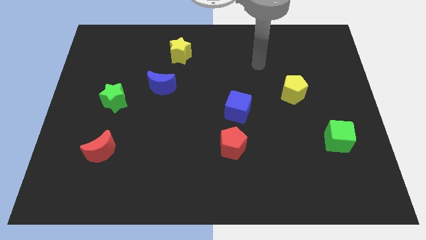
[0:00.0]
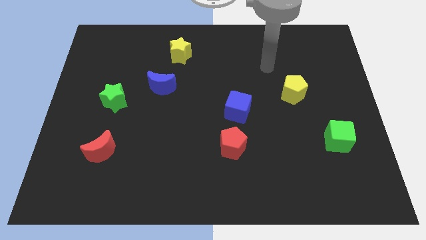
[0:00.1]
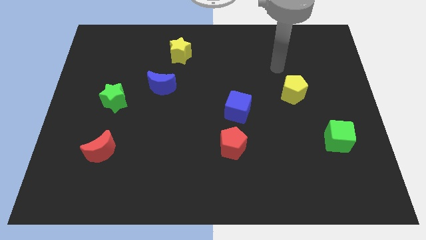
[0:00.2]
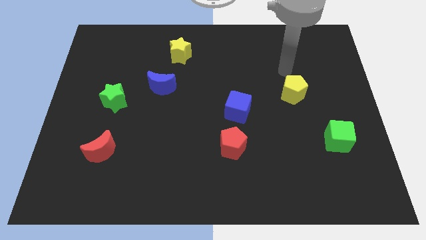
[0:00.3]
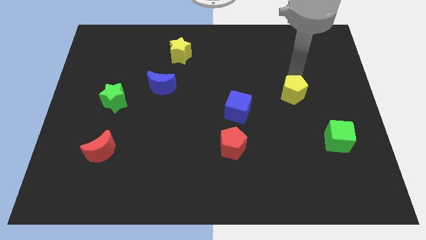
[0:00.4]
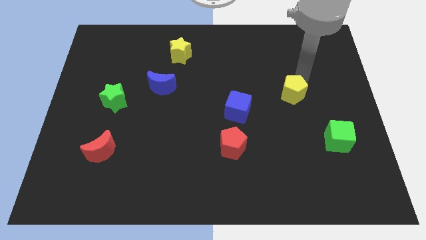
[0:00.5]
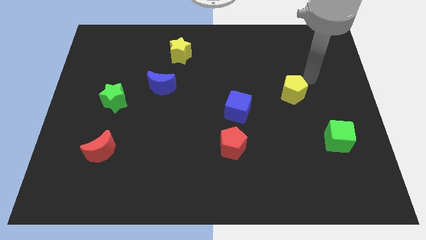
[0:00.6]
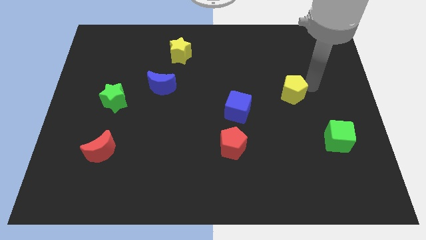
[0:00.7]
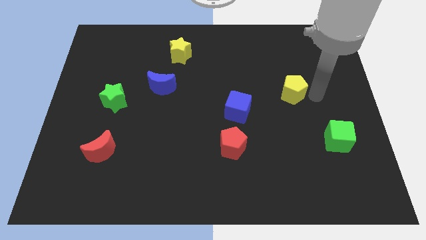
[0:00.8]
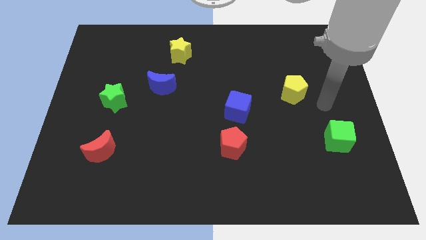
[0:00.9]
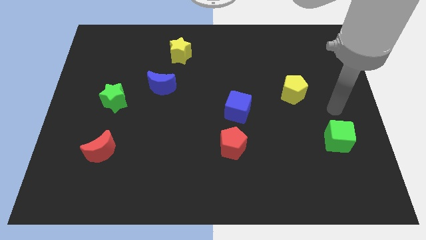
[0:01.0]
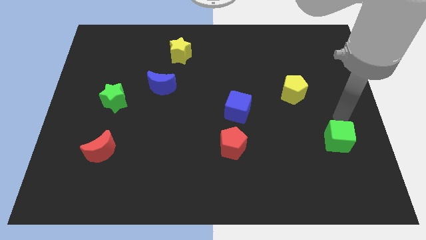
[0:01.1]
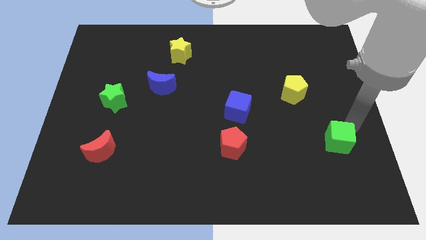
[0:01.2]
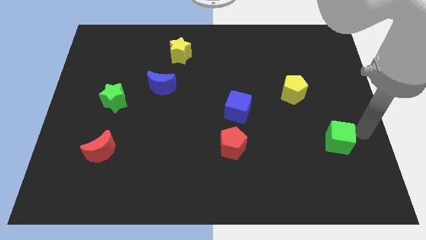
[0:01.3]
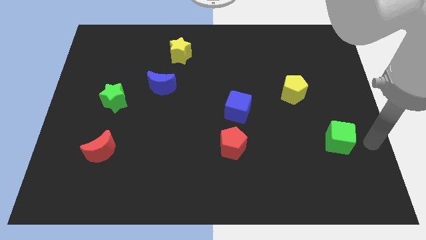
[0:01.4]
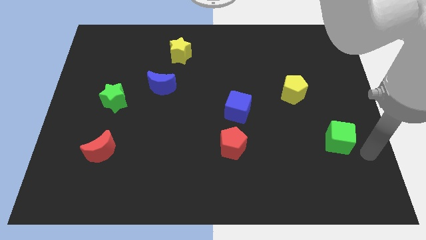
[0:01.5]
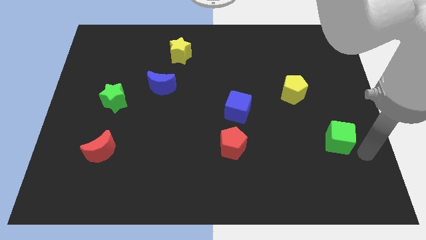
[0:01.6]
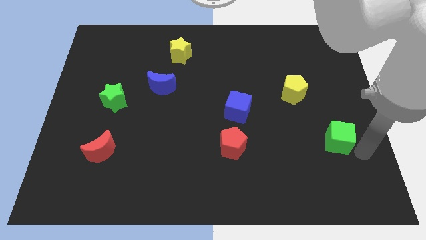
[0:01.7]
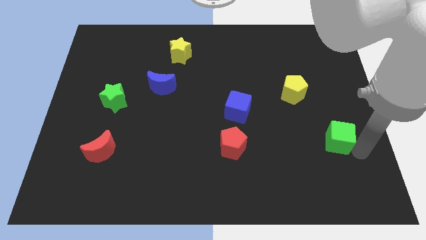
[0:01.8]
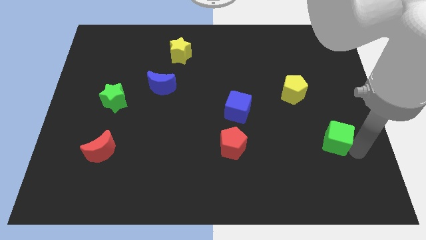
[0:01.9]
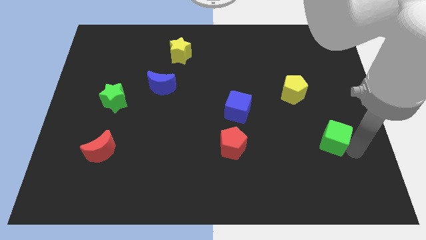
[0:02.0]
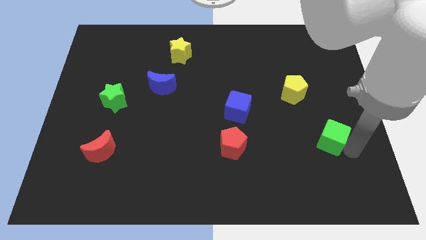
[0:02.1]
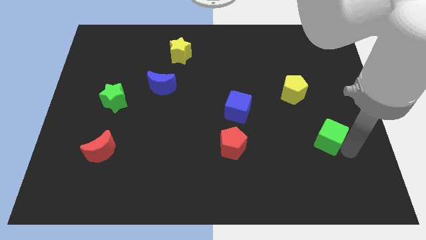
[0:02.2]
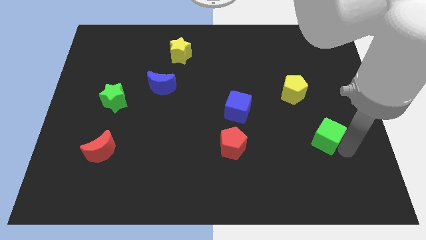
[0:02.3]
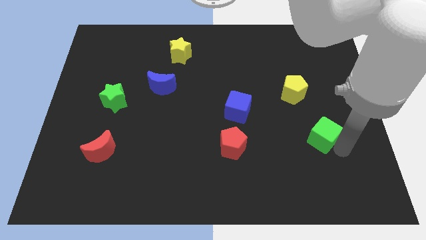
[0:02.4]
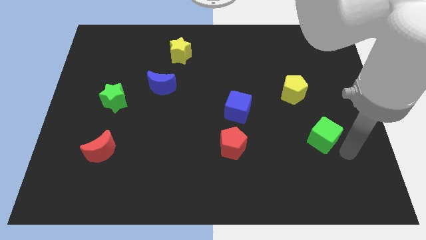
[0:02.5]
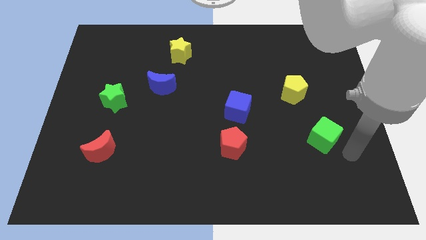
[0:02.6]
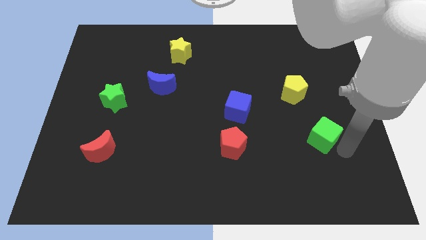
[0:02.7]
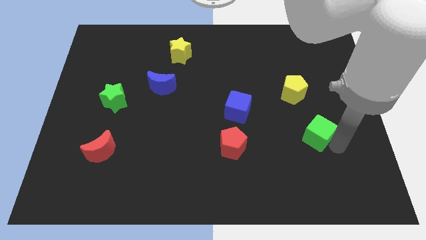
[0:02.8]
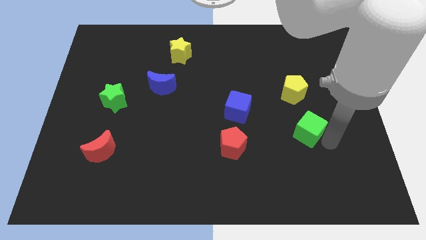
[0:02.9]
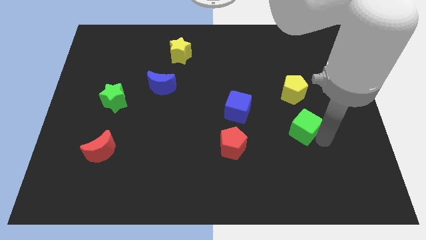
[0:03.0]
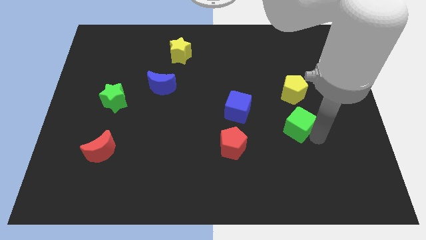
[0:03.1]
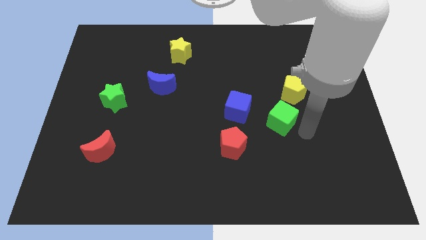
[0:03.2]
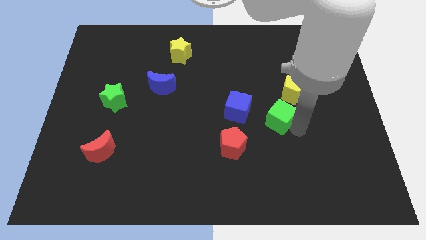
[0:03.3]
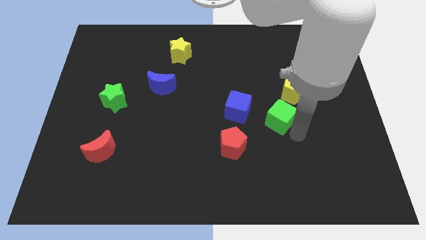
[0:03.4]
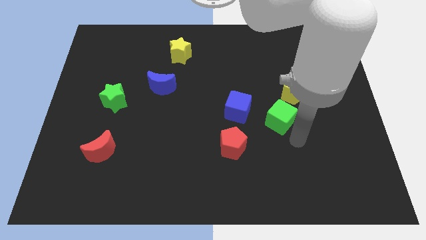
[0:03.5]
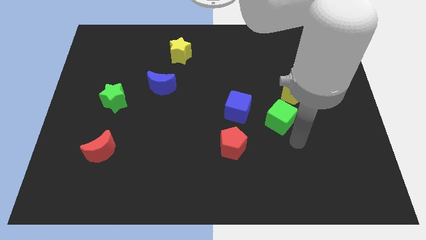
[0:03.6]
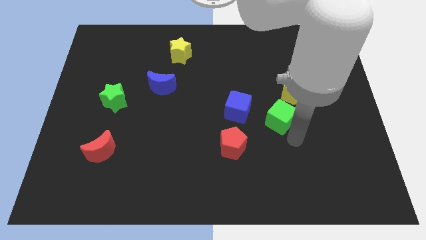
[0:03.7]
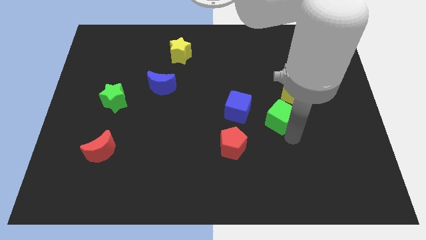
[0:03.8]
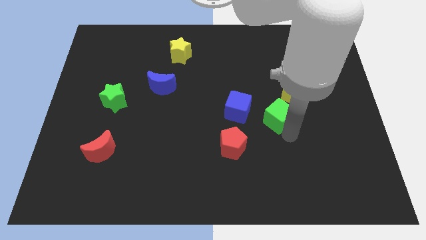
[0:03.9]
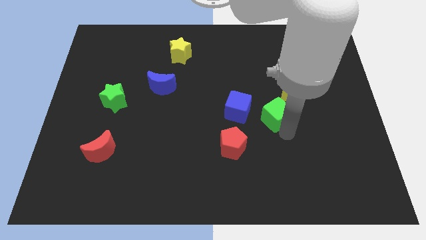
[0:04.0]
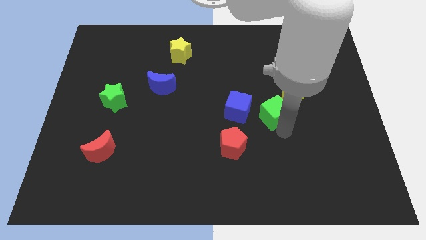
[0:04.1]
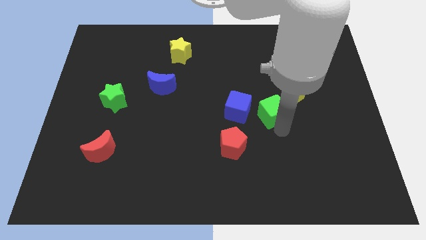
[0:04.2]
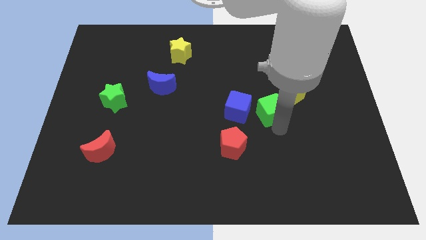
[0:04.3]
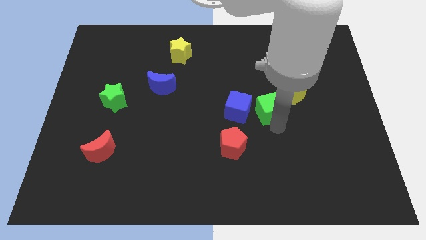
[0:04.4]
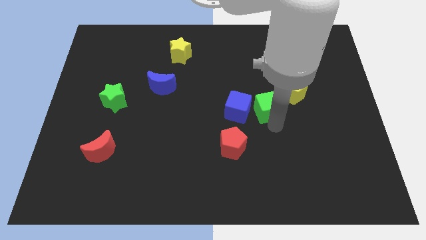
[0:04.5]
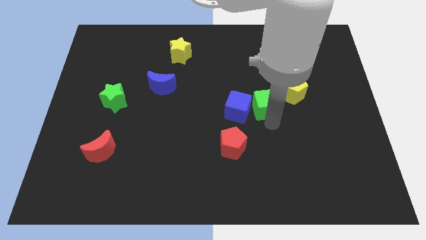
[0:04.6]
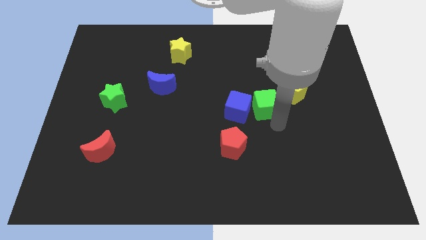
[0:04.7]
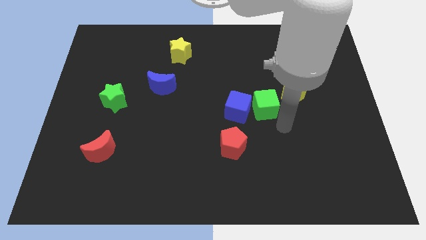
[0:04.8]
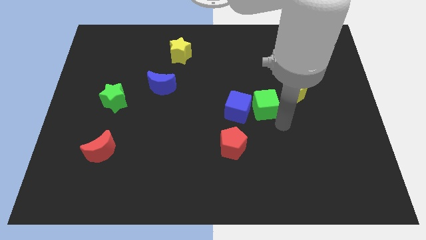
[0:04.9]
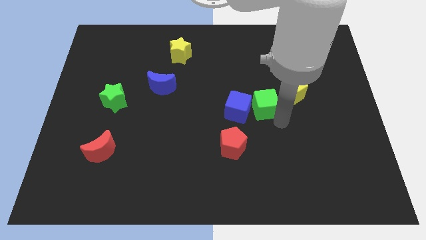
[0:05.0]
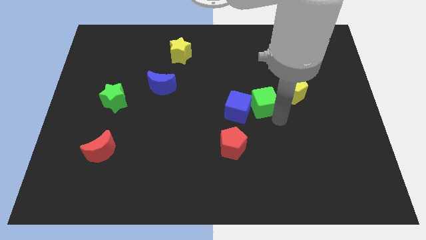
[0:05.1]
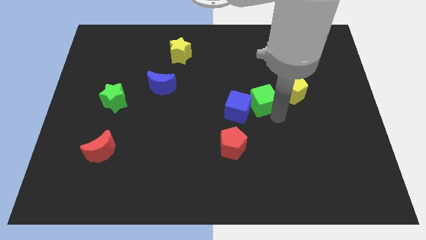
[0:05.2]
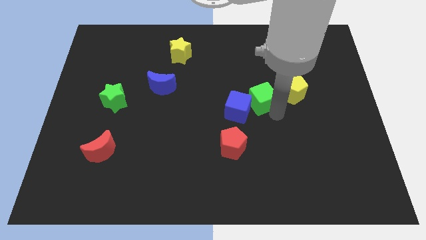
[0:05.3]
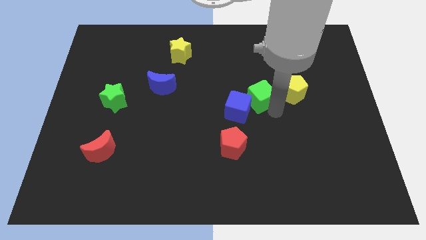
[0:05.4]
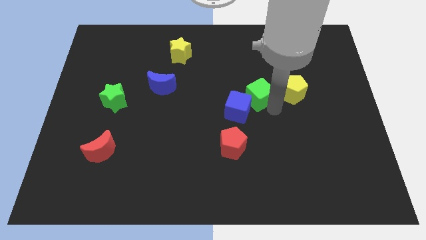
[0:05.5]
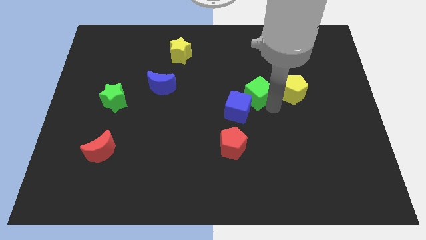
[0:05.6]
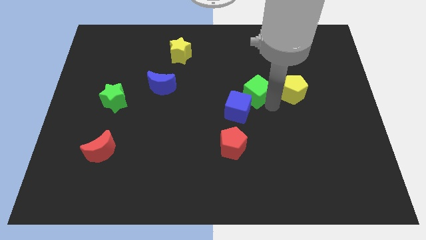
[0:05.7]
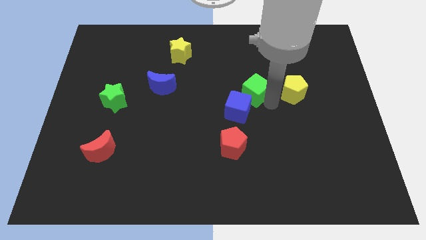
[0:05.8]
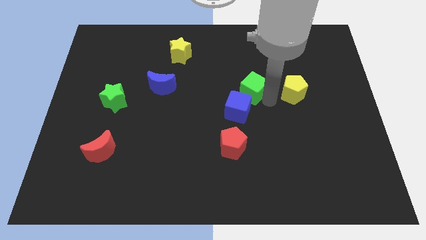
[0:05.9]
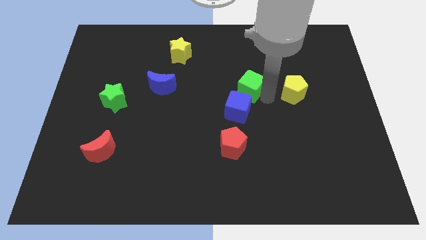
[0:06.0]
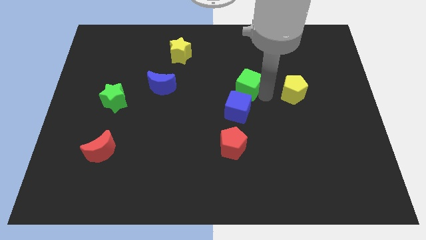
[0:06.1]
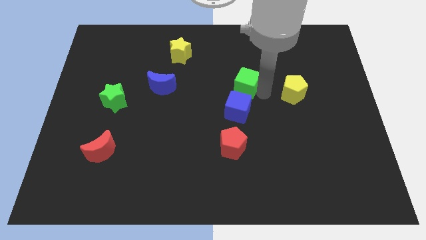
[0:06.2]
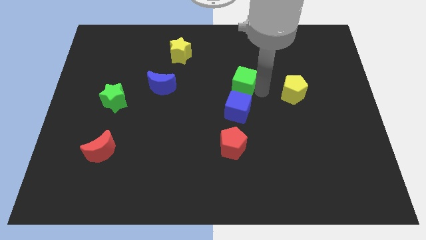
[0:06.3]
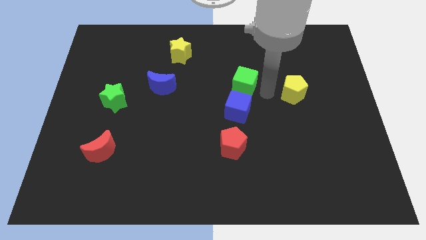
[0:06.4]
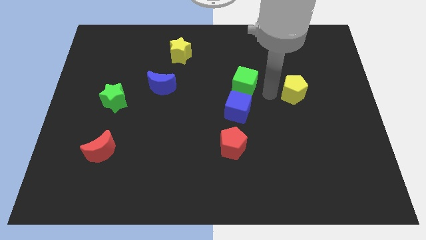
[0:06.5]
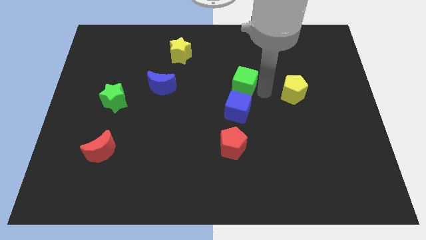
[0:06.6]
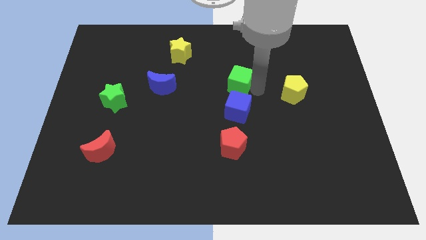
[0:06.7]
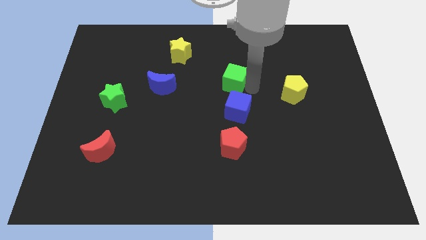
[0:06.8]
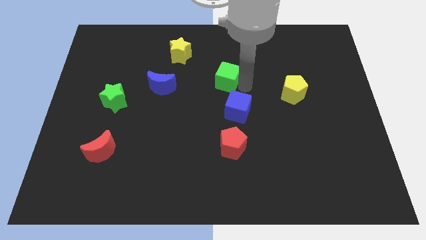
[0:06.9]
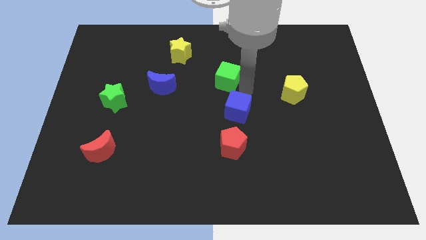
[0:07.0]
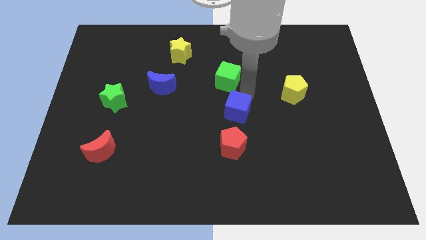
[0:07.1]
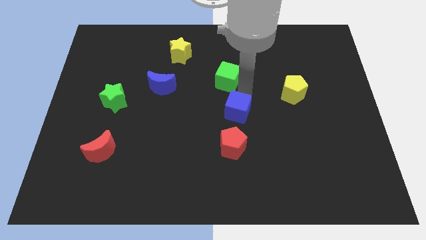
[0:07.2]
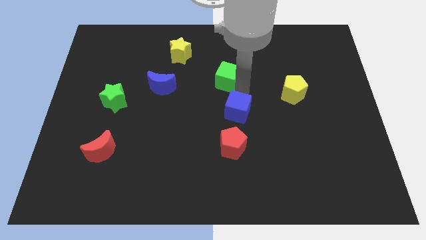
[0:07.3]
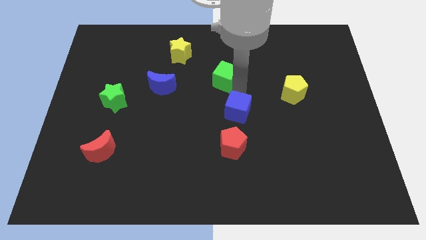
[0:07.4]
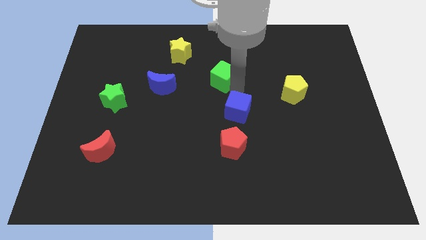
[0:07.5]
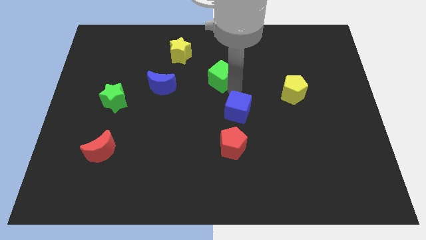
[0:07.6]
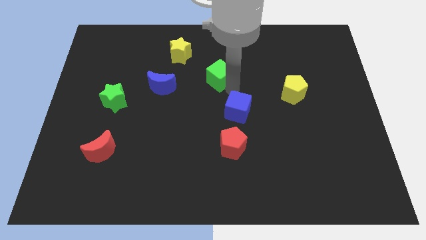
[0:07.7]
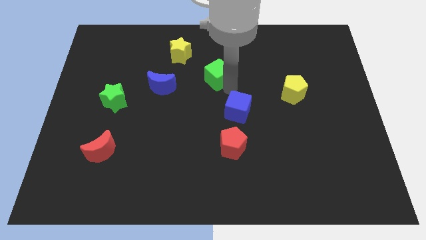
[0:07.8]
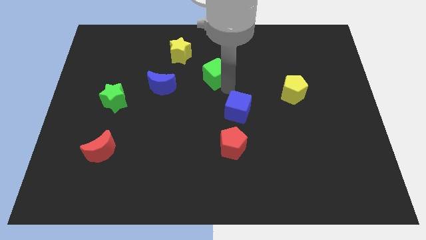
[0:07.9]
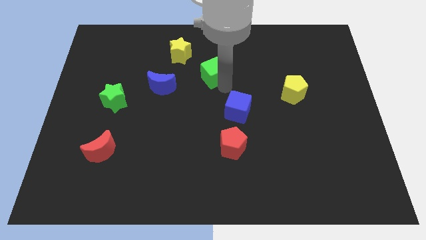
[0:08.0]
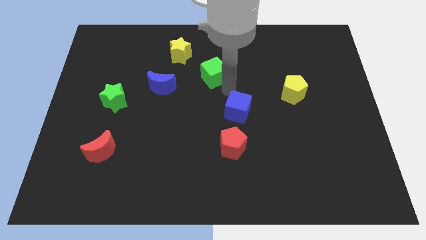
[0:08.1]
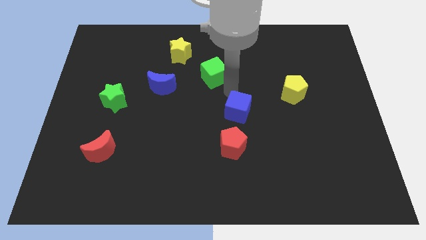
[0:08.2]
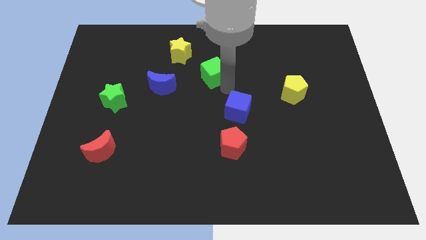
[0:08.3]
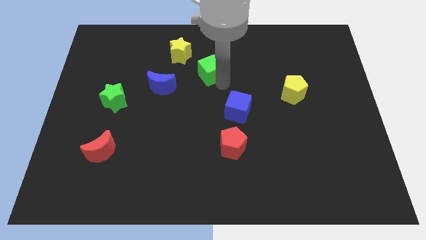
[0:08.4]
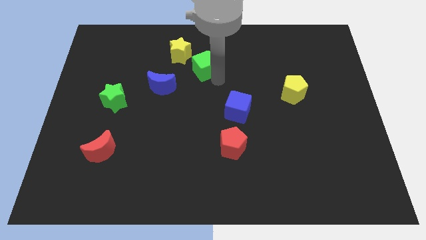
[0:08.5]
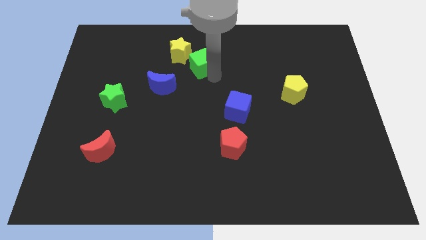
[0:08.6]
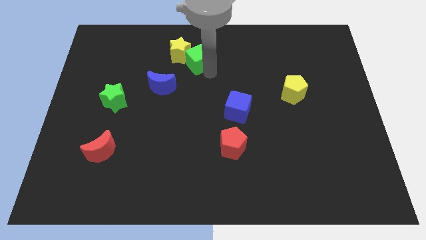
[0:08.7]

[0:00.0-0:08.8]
push the green cube towards the yellow star
